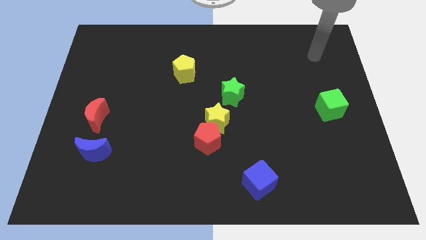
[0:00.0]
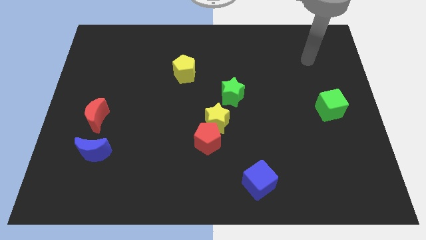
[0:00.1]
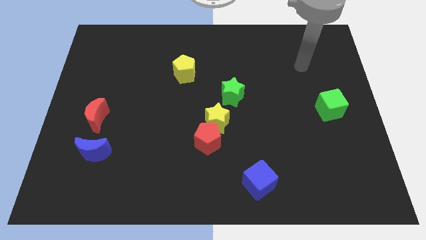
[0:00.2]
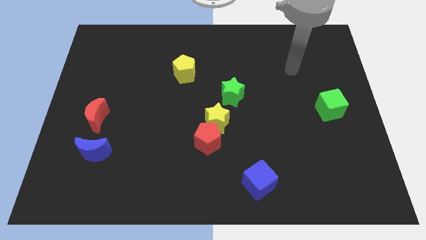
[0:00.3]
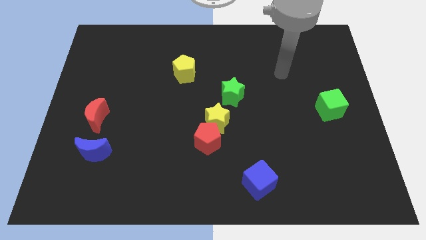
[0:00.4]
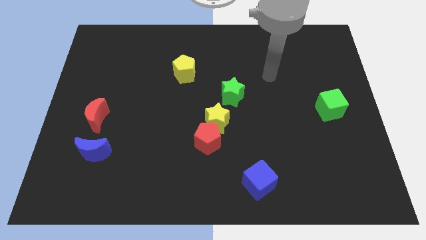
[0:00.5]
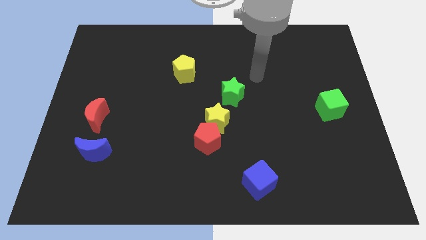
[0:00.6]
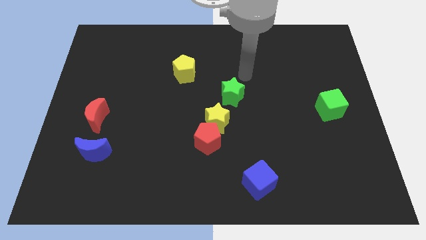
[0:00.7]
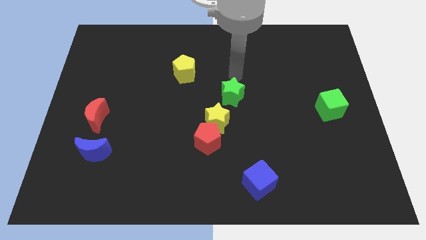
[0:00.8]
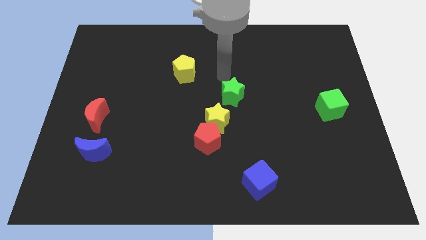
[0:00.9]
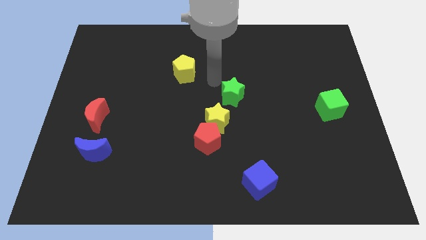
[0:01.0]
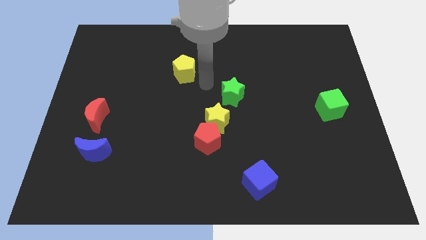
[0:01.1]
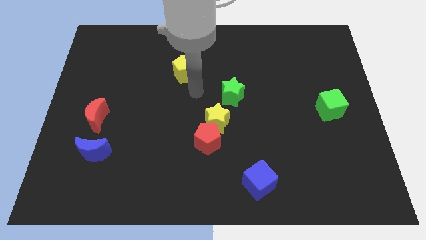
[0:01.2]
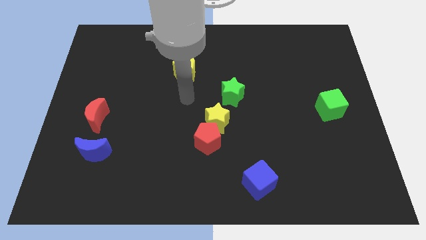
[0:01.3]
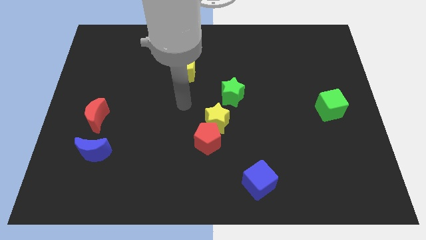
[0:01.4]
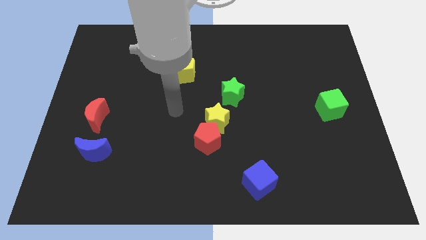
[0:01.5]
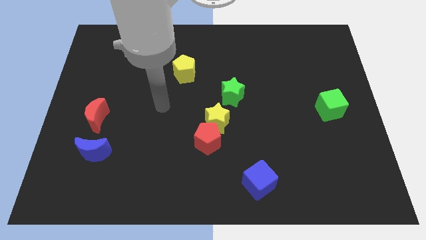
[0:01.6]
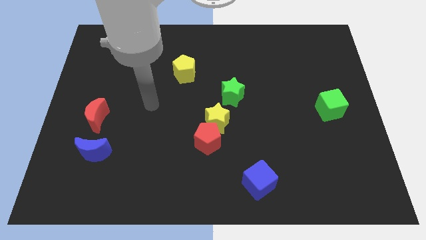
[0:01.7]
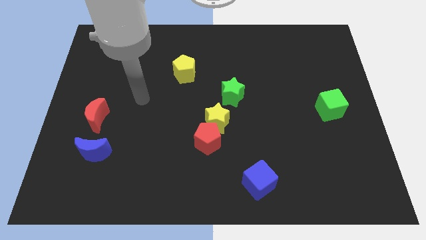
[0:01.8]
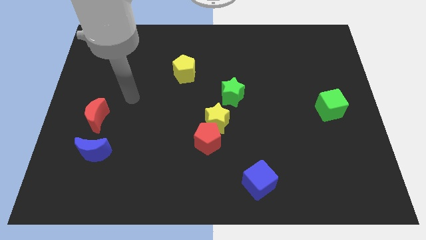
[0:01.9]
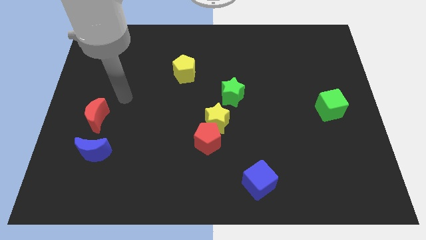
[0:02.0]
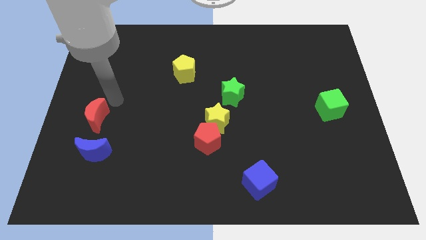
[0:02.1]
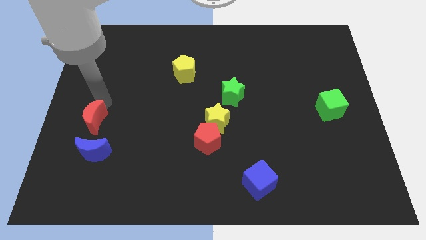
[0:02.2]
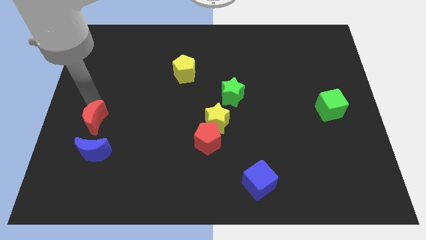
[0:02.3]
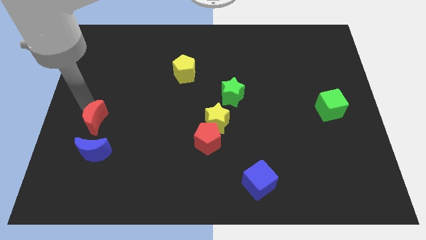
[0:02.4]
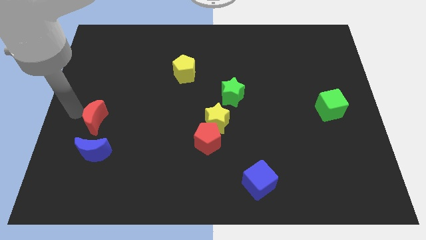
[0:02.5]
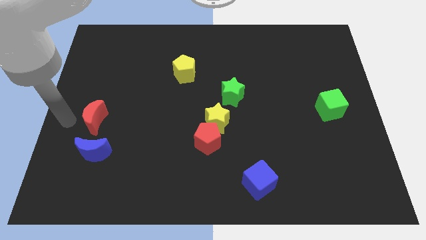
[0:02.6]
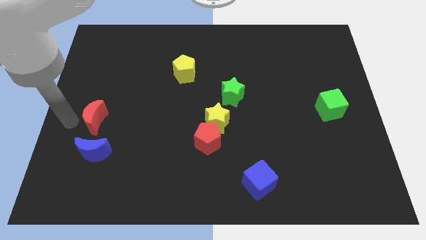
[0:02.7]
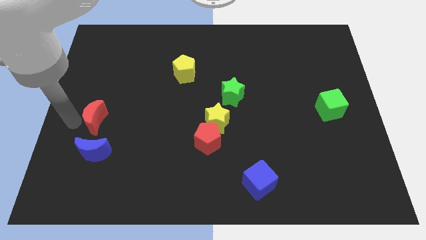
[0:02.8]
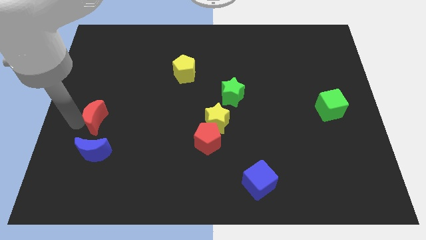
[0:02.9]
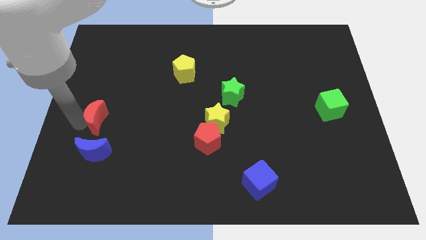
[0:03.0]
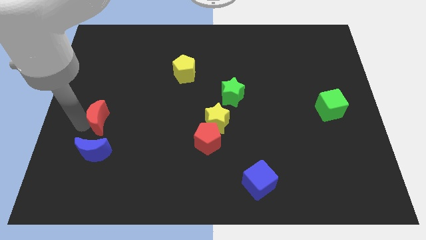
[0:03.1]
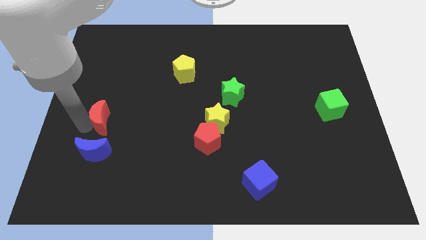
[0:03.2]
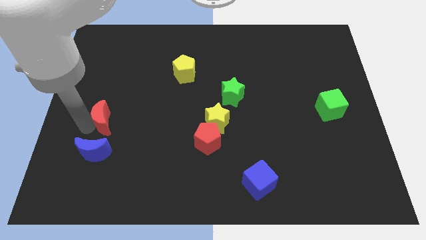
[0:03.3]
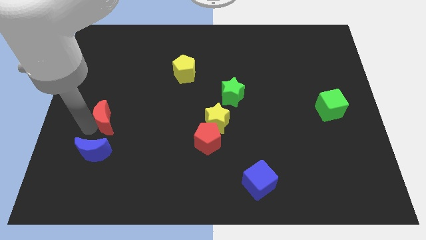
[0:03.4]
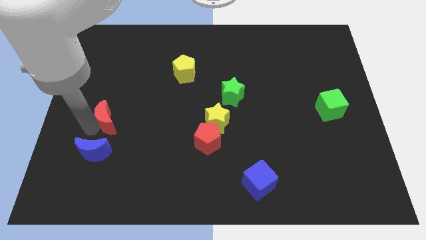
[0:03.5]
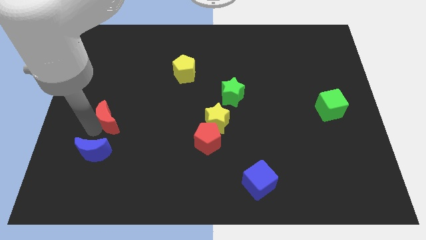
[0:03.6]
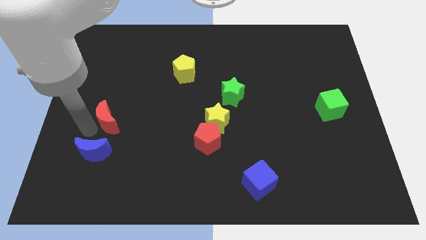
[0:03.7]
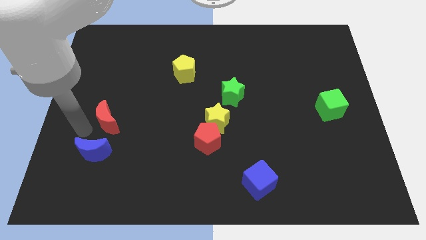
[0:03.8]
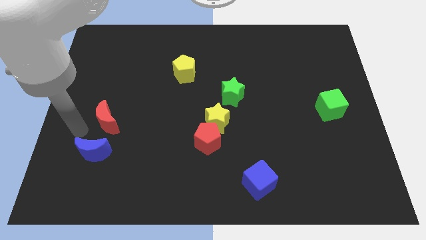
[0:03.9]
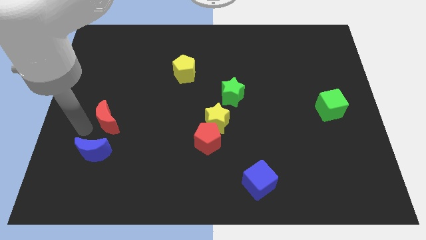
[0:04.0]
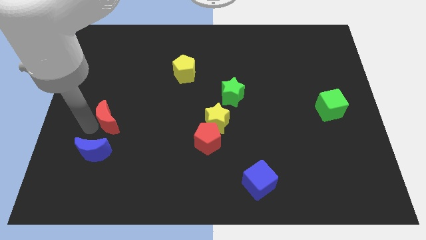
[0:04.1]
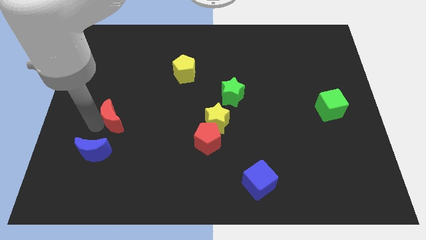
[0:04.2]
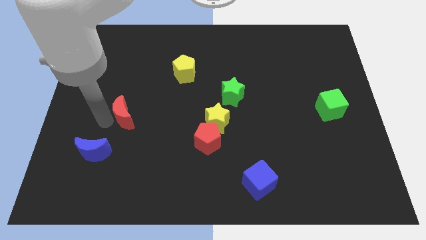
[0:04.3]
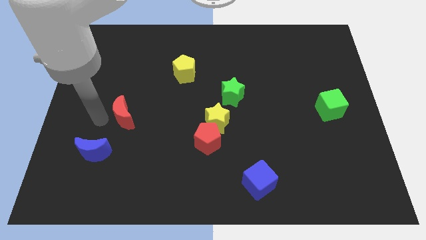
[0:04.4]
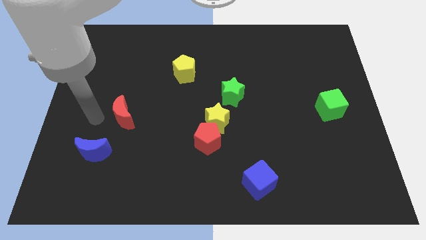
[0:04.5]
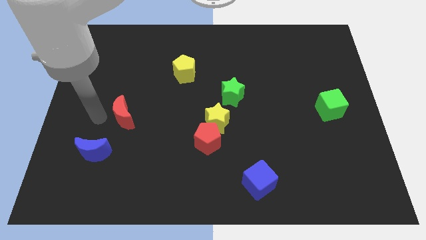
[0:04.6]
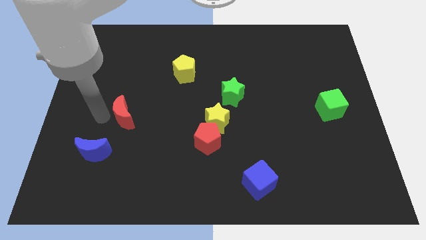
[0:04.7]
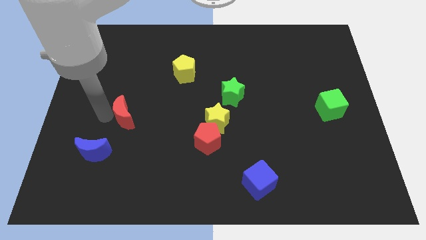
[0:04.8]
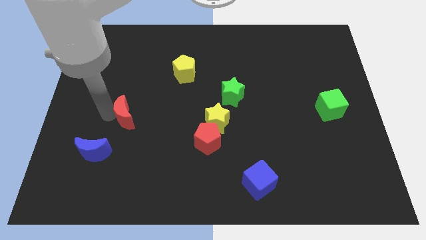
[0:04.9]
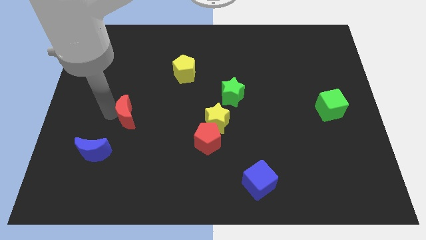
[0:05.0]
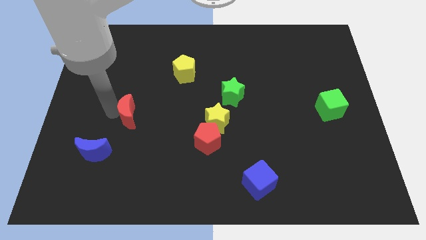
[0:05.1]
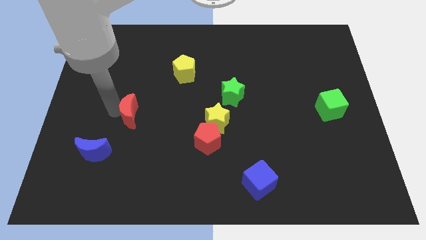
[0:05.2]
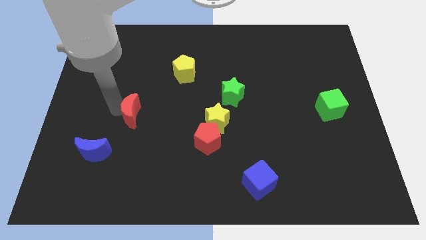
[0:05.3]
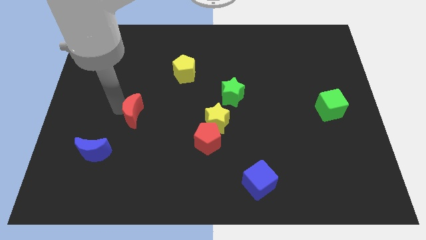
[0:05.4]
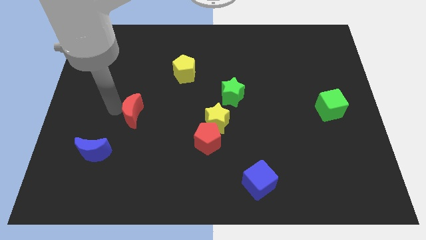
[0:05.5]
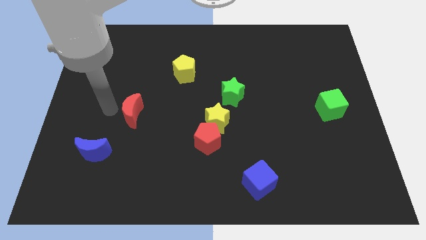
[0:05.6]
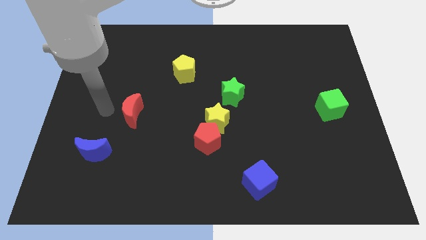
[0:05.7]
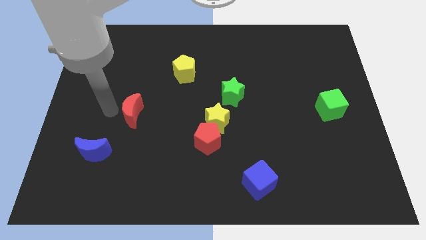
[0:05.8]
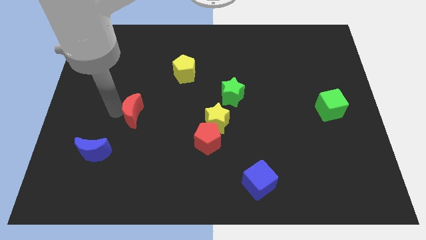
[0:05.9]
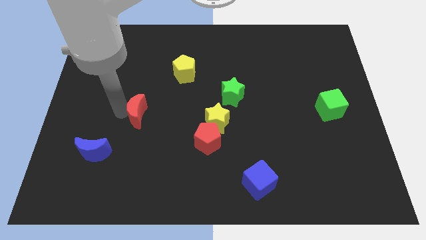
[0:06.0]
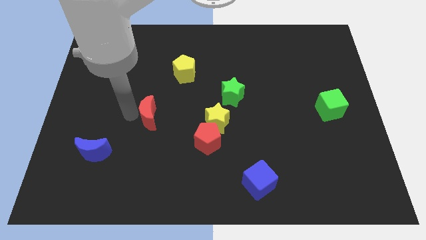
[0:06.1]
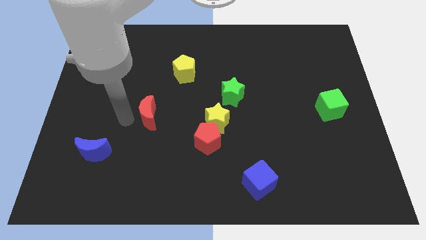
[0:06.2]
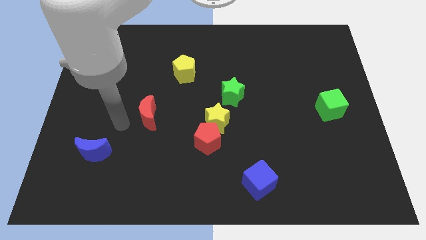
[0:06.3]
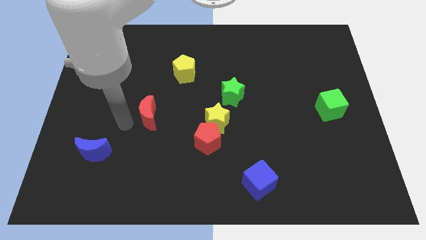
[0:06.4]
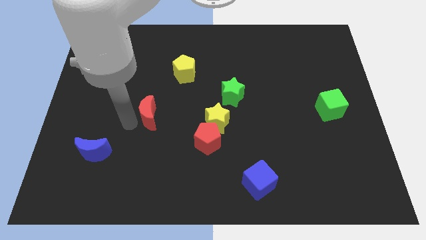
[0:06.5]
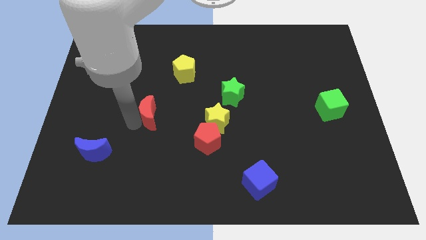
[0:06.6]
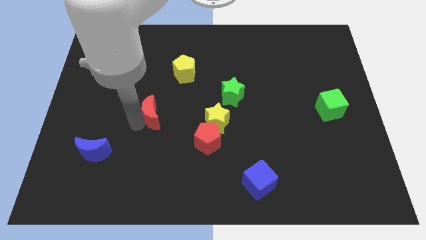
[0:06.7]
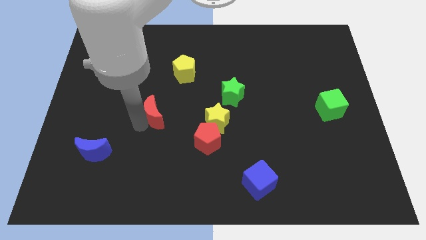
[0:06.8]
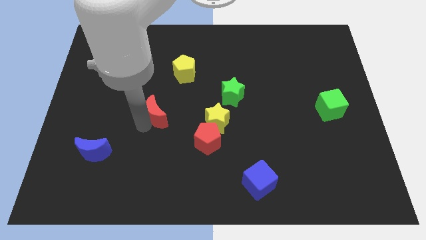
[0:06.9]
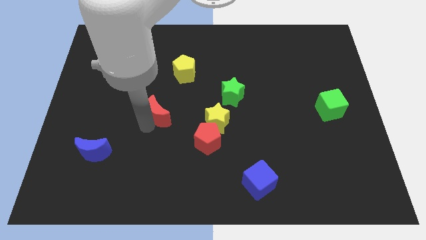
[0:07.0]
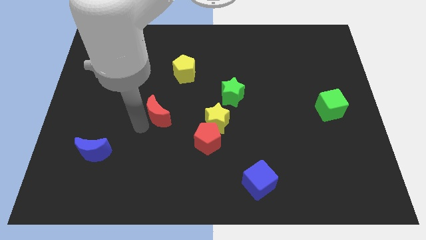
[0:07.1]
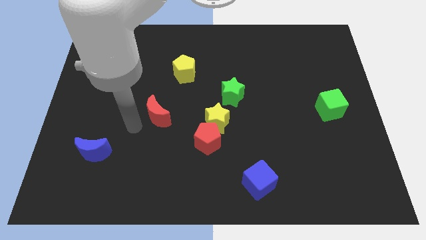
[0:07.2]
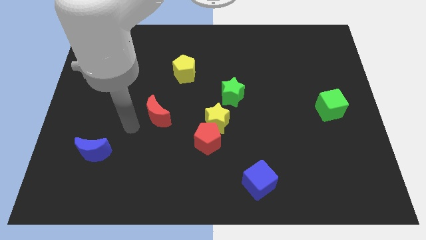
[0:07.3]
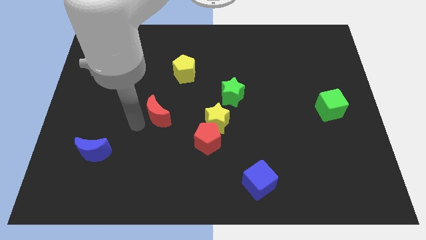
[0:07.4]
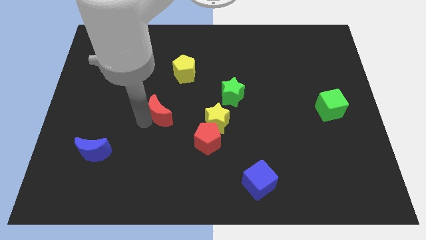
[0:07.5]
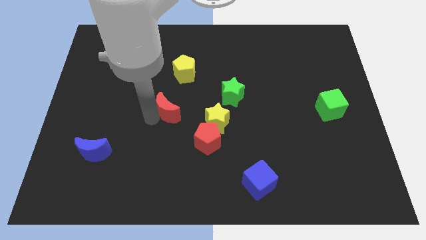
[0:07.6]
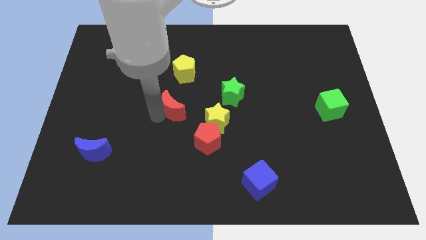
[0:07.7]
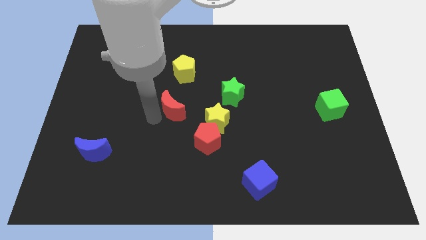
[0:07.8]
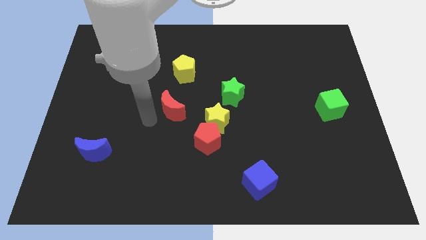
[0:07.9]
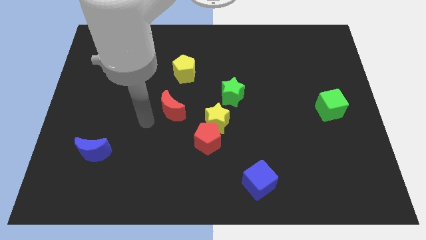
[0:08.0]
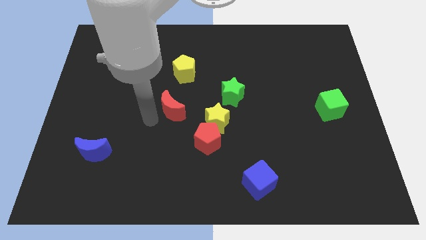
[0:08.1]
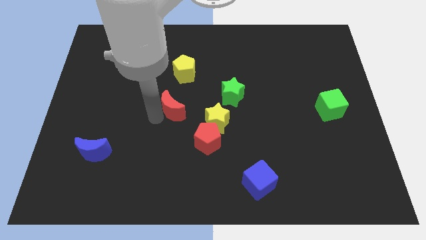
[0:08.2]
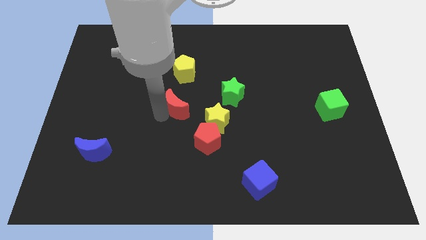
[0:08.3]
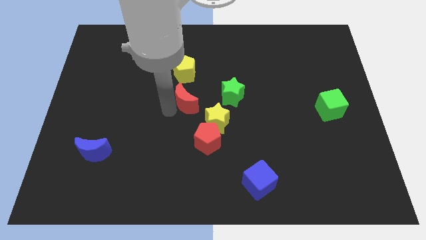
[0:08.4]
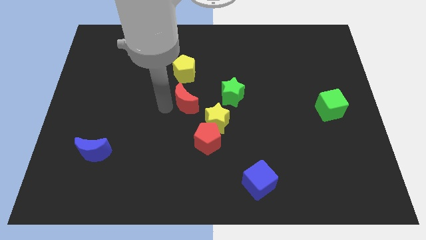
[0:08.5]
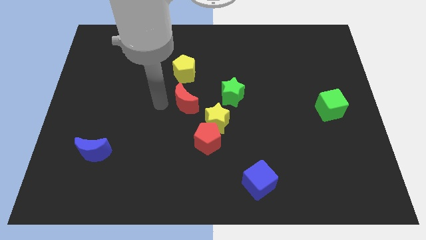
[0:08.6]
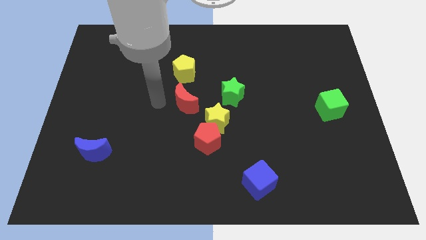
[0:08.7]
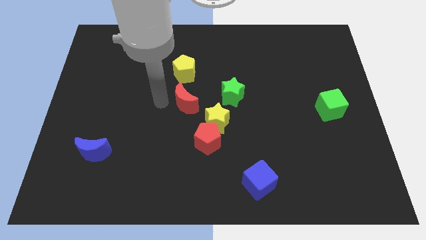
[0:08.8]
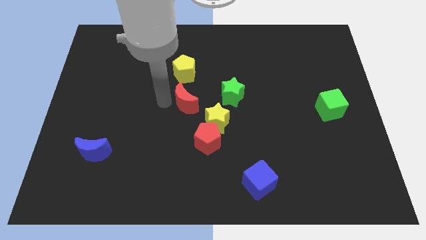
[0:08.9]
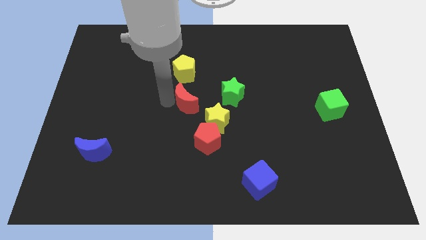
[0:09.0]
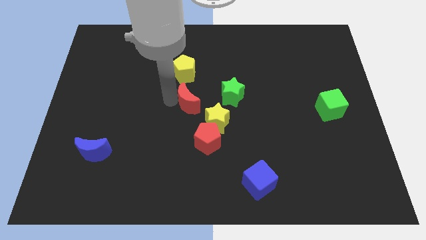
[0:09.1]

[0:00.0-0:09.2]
slide the red moon to the top of the red pentagon
